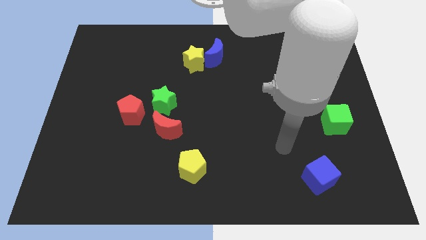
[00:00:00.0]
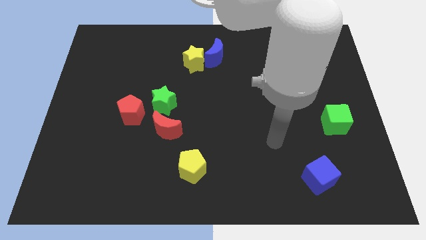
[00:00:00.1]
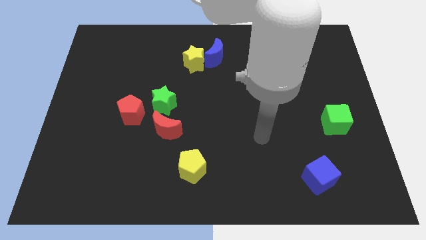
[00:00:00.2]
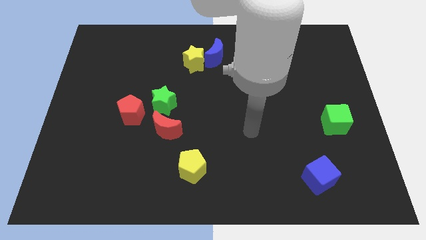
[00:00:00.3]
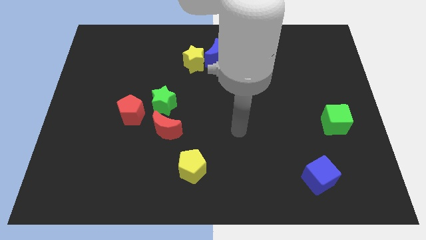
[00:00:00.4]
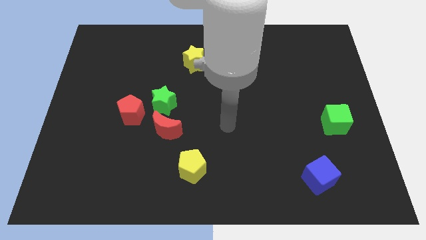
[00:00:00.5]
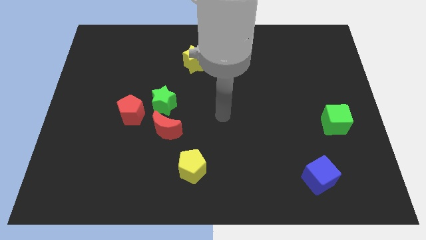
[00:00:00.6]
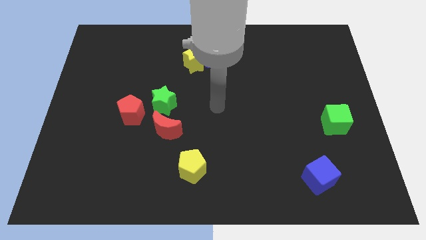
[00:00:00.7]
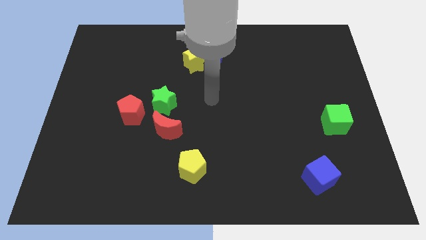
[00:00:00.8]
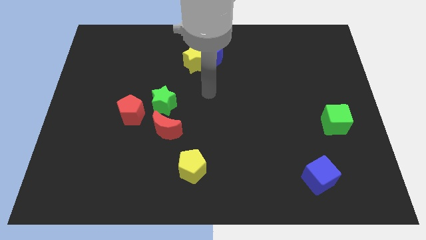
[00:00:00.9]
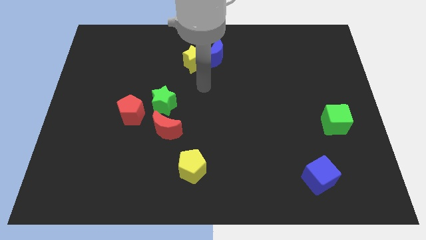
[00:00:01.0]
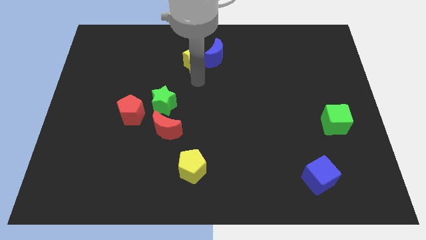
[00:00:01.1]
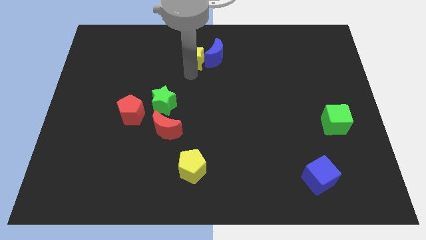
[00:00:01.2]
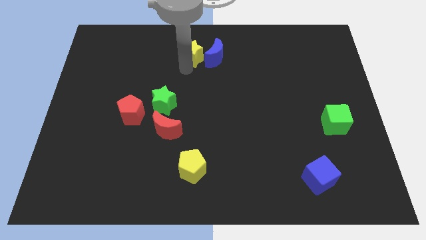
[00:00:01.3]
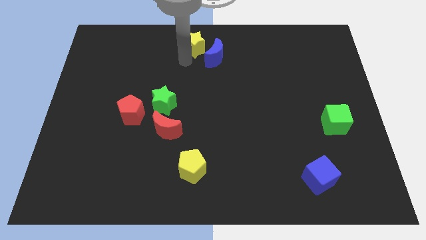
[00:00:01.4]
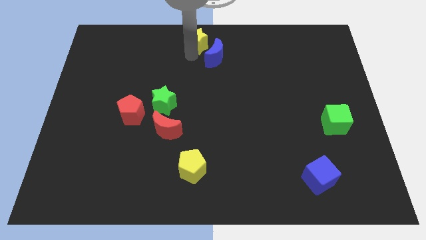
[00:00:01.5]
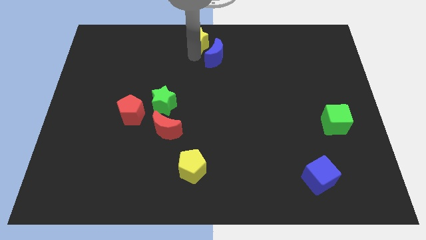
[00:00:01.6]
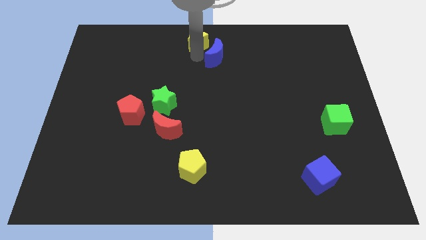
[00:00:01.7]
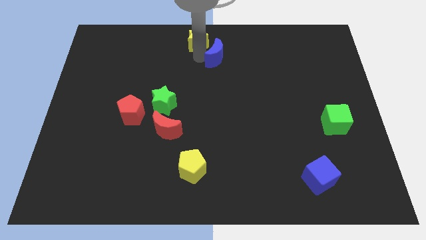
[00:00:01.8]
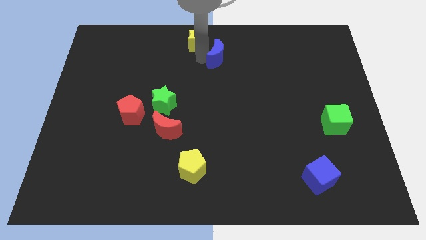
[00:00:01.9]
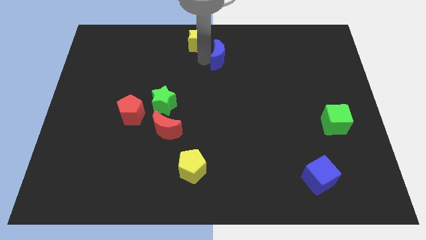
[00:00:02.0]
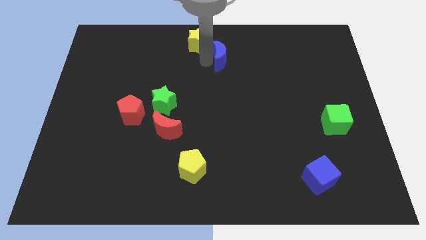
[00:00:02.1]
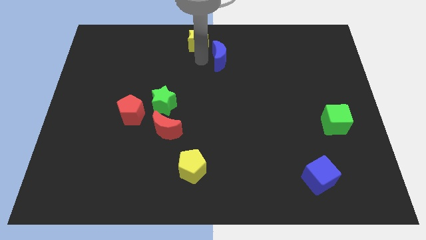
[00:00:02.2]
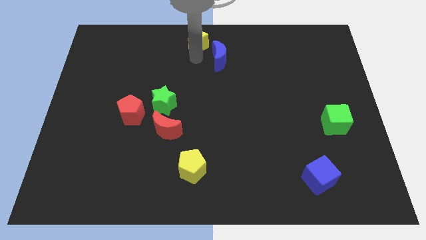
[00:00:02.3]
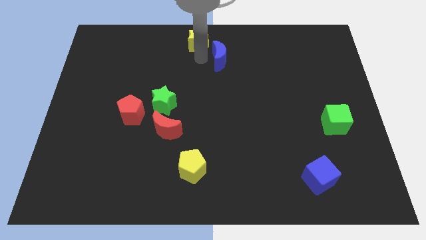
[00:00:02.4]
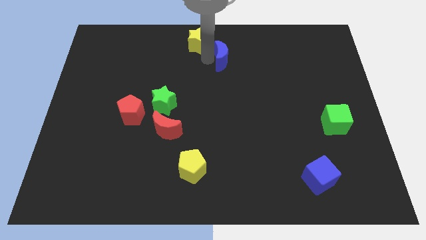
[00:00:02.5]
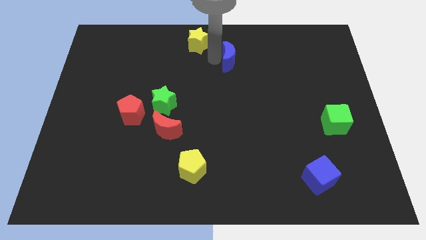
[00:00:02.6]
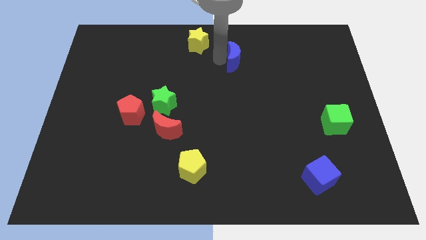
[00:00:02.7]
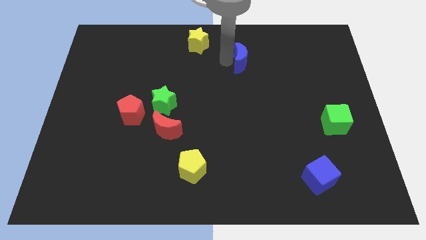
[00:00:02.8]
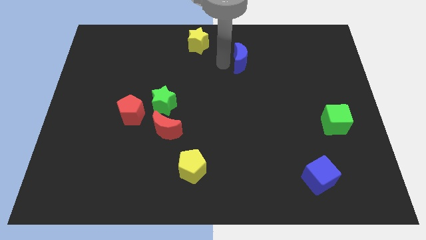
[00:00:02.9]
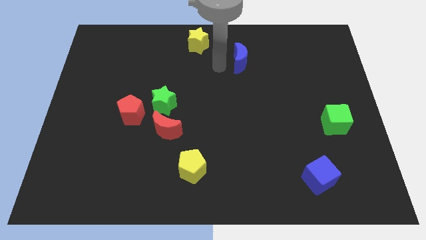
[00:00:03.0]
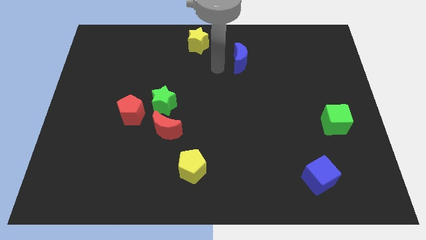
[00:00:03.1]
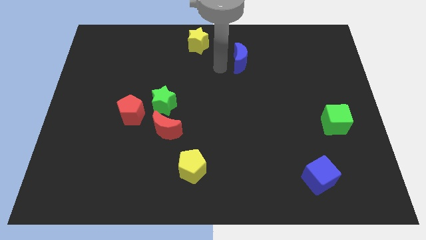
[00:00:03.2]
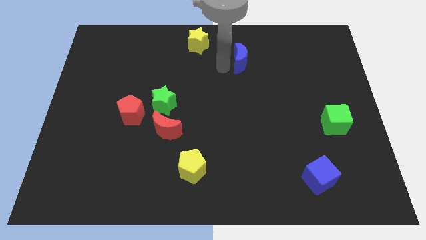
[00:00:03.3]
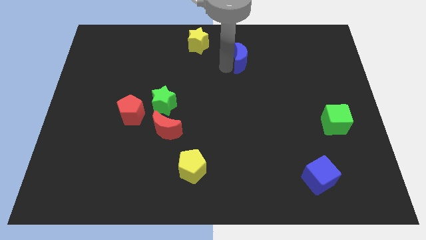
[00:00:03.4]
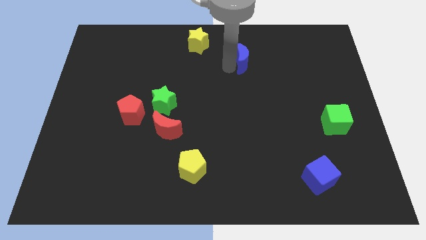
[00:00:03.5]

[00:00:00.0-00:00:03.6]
slightly push the blue moon right

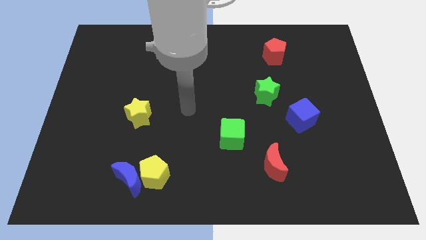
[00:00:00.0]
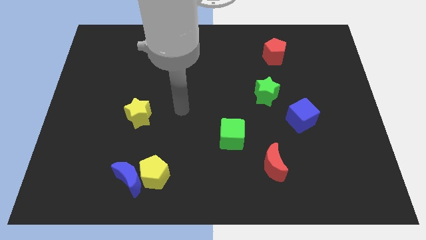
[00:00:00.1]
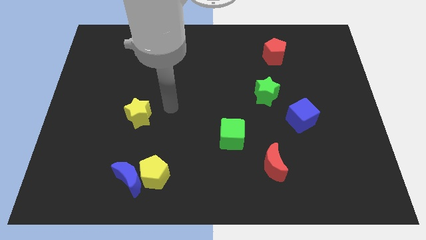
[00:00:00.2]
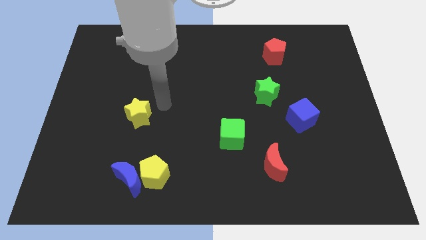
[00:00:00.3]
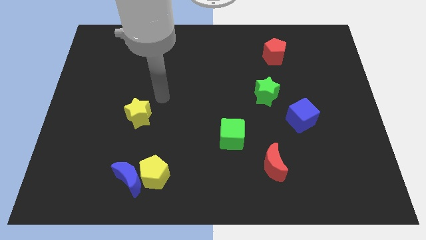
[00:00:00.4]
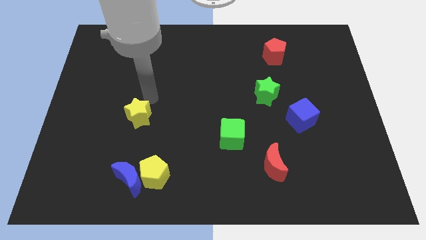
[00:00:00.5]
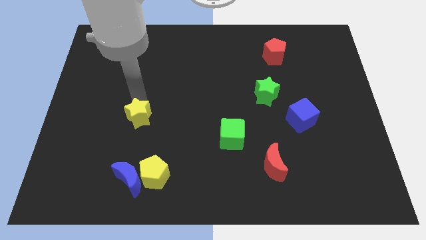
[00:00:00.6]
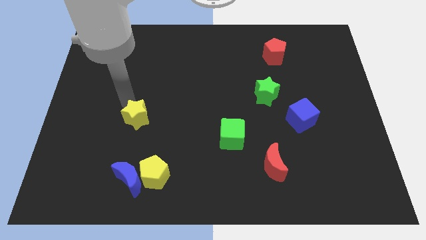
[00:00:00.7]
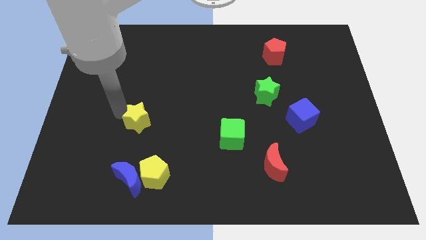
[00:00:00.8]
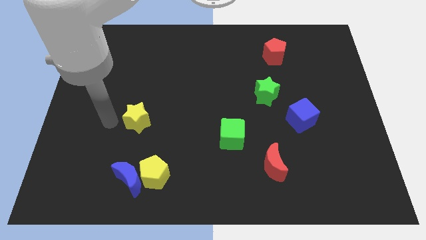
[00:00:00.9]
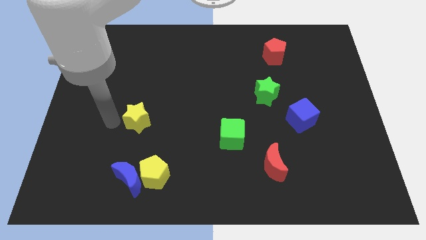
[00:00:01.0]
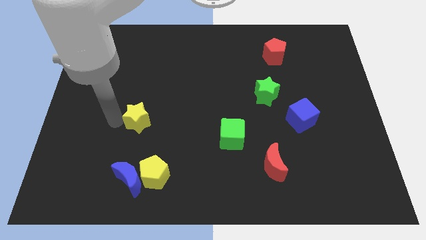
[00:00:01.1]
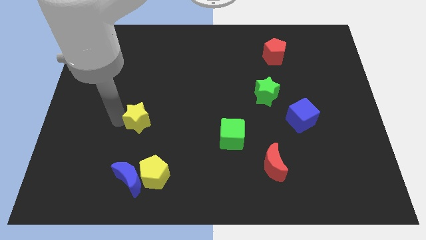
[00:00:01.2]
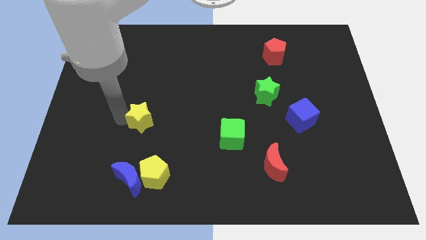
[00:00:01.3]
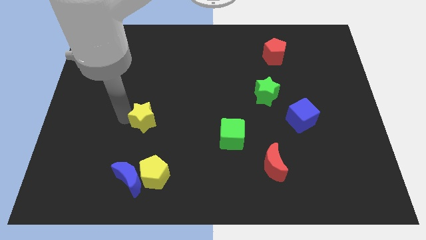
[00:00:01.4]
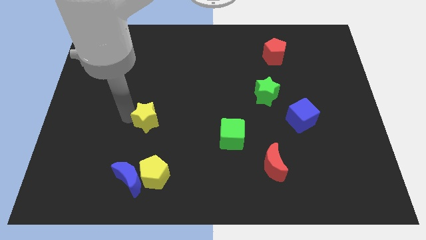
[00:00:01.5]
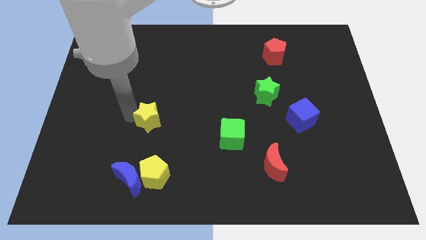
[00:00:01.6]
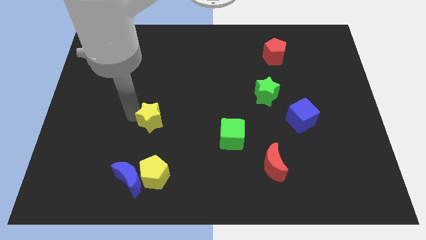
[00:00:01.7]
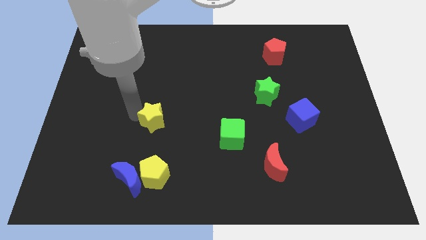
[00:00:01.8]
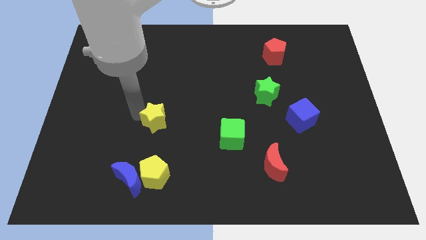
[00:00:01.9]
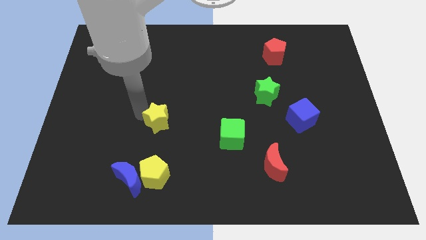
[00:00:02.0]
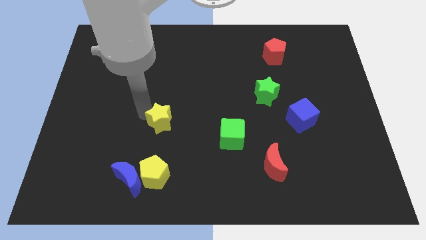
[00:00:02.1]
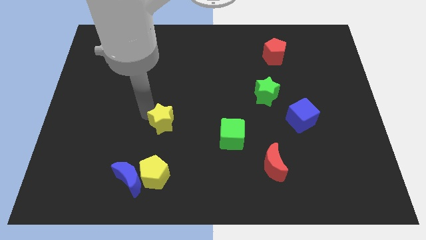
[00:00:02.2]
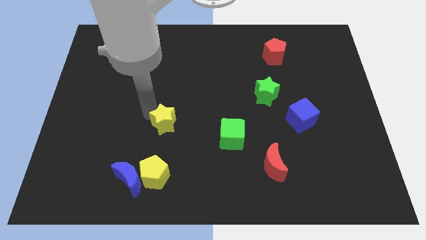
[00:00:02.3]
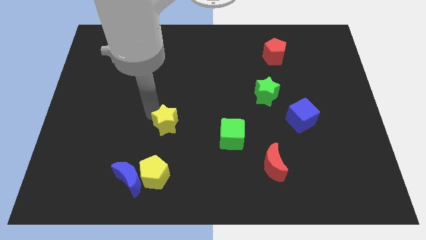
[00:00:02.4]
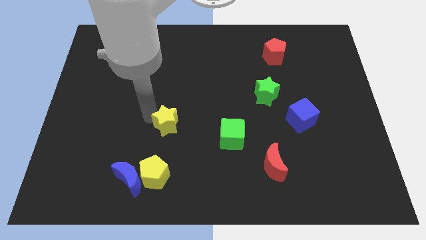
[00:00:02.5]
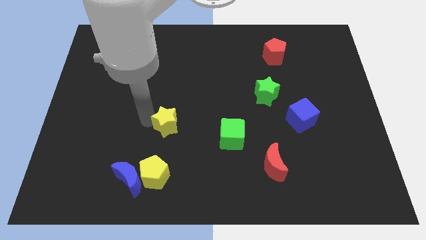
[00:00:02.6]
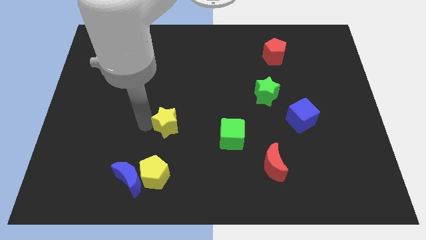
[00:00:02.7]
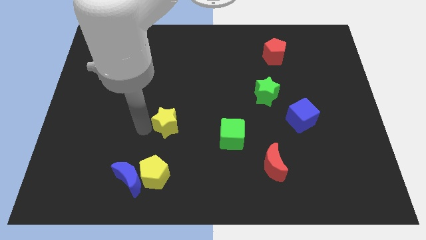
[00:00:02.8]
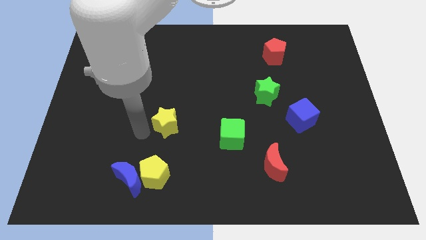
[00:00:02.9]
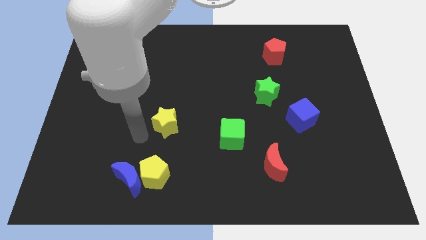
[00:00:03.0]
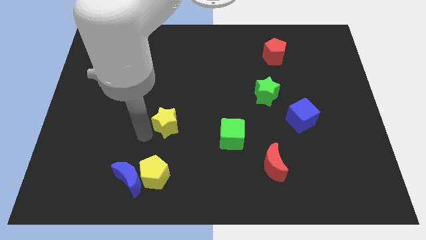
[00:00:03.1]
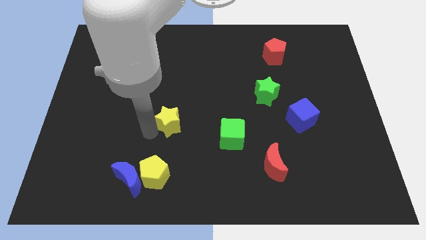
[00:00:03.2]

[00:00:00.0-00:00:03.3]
move the yellow star right a little bit

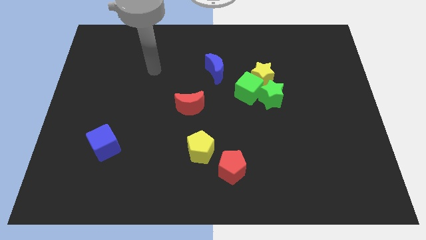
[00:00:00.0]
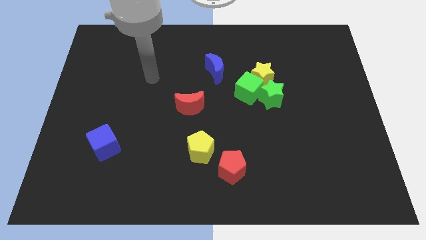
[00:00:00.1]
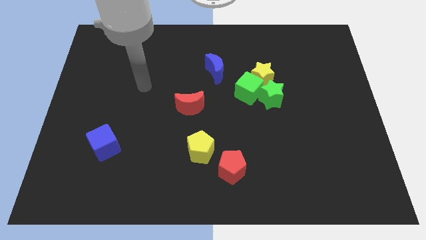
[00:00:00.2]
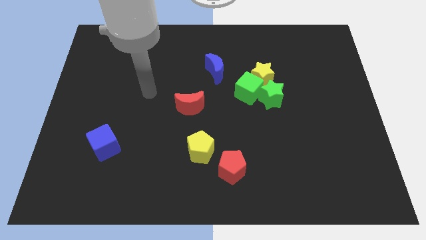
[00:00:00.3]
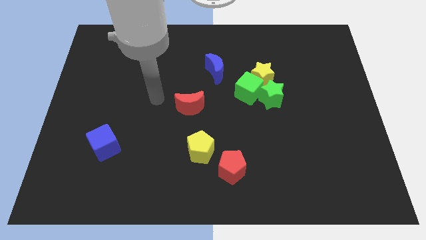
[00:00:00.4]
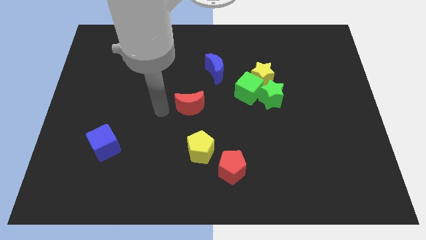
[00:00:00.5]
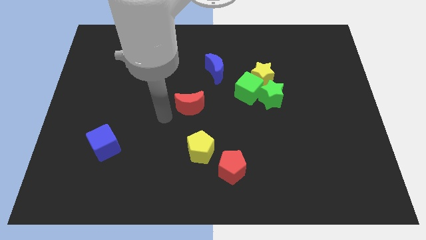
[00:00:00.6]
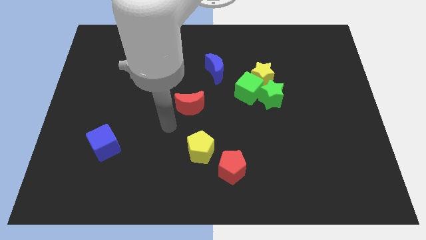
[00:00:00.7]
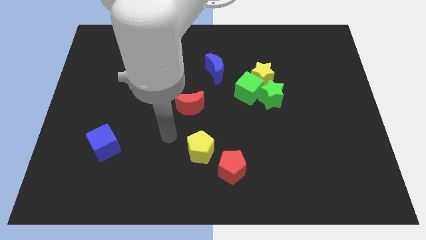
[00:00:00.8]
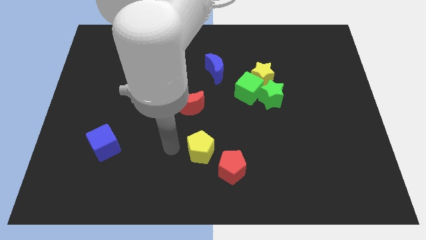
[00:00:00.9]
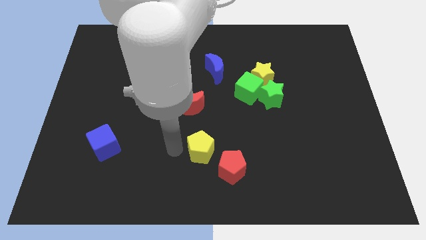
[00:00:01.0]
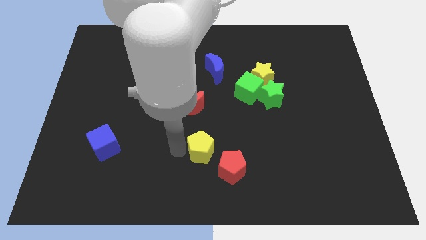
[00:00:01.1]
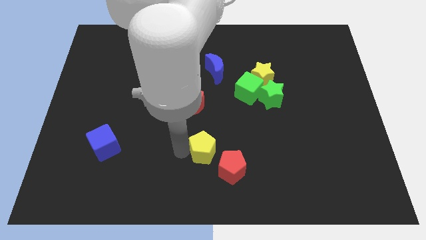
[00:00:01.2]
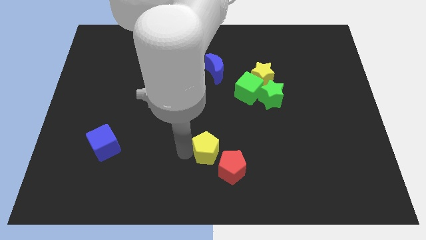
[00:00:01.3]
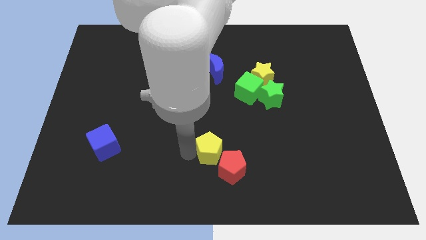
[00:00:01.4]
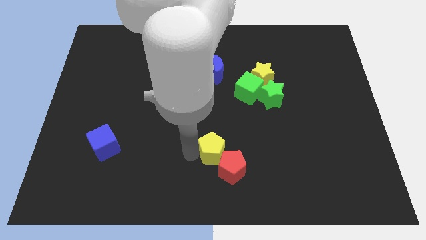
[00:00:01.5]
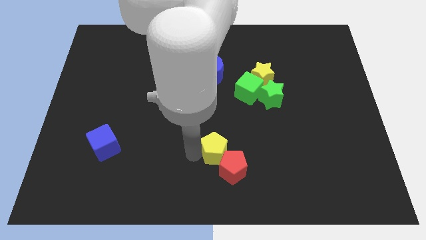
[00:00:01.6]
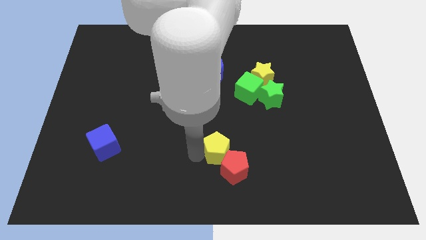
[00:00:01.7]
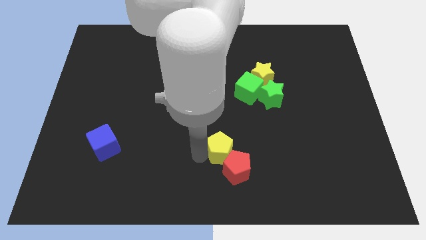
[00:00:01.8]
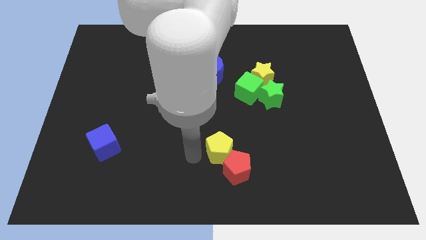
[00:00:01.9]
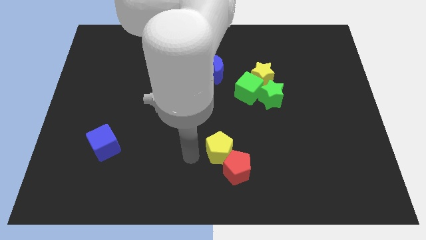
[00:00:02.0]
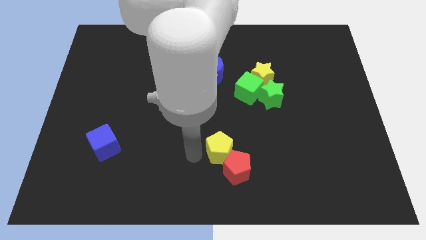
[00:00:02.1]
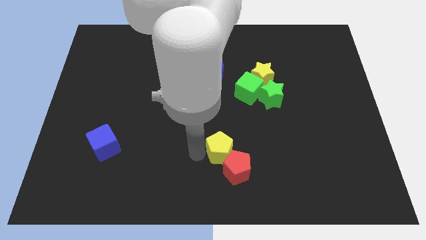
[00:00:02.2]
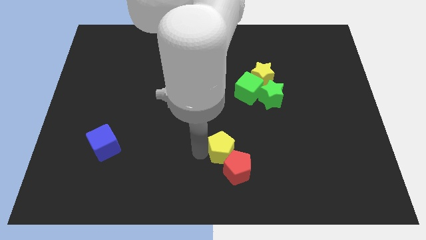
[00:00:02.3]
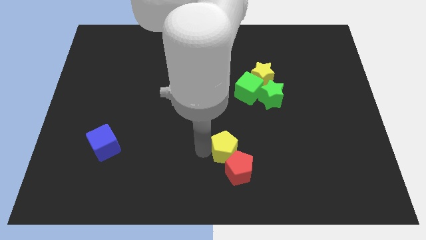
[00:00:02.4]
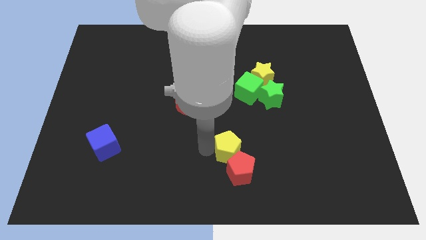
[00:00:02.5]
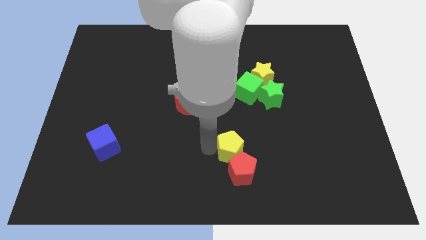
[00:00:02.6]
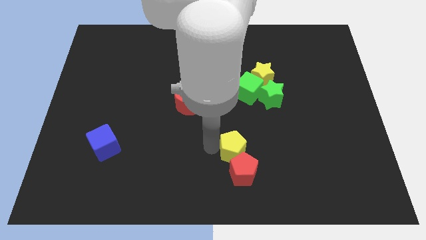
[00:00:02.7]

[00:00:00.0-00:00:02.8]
push the yellow pentagon to the right slightly
